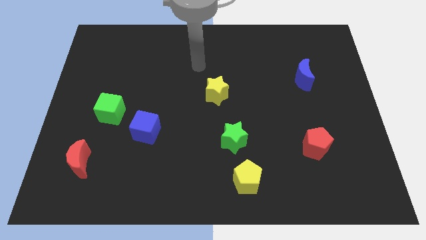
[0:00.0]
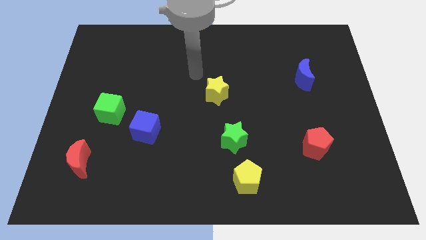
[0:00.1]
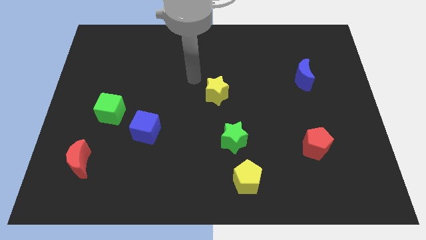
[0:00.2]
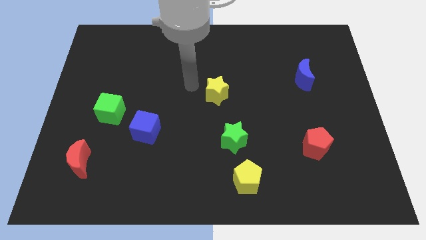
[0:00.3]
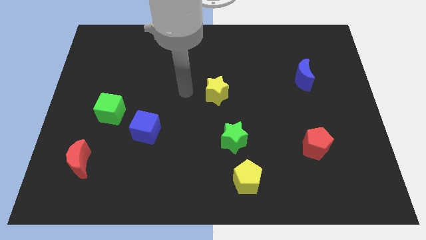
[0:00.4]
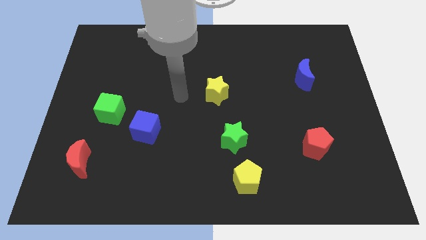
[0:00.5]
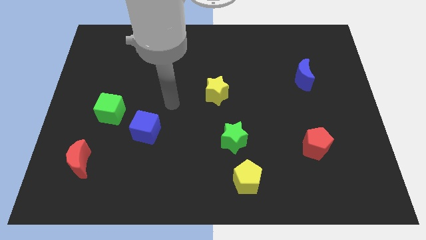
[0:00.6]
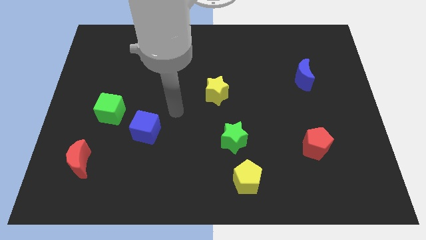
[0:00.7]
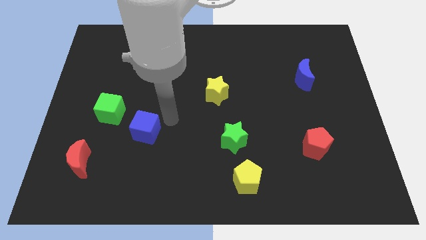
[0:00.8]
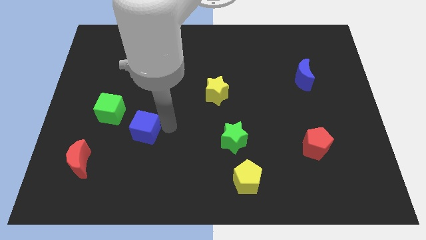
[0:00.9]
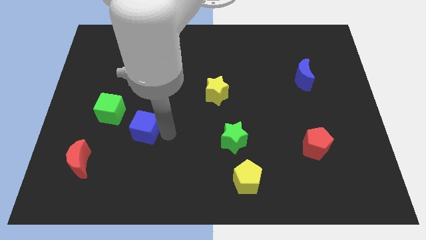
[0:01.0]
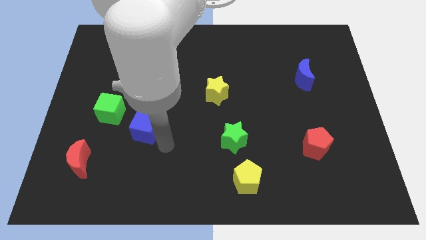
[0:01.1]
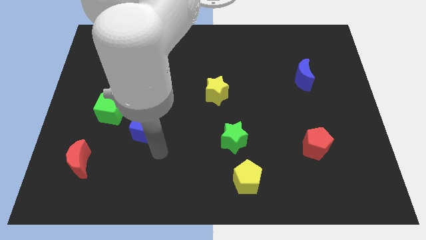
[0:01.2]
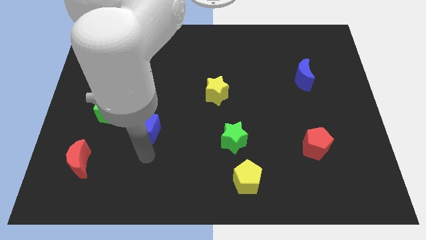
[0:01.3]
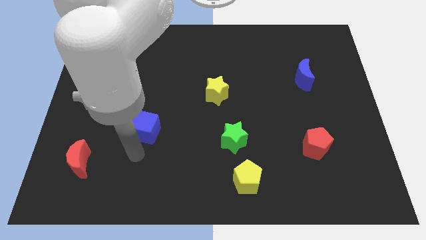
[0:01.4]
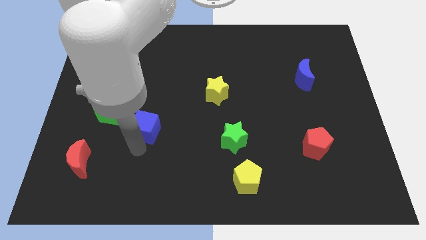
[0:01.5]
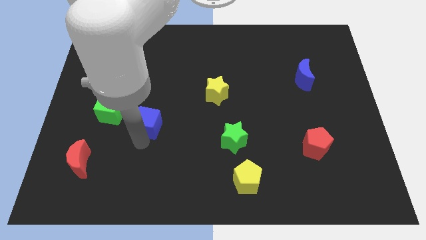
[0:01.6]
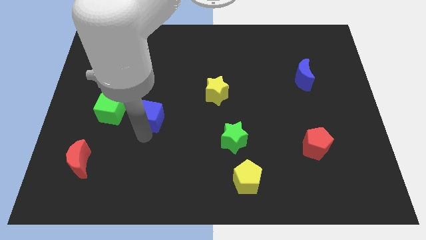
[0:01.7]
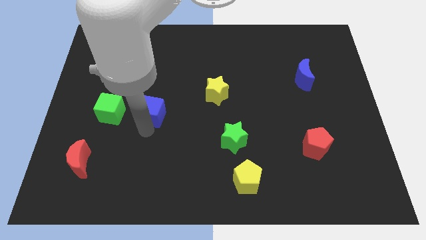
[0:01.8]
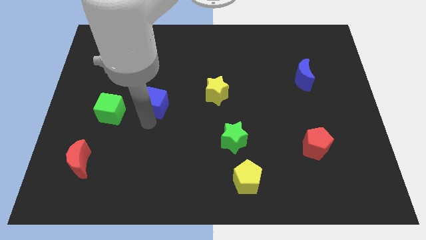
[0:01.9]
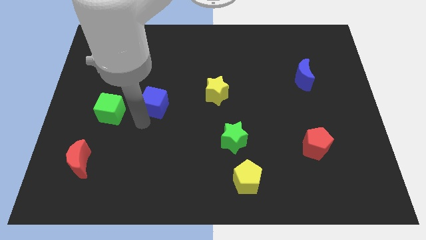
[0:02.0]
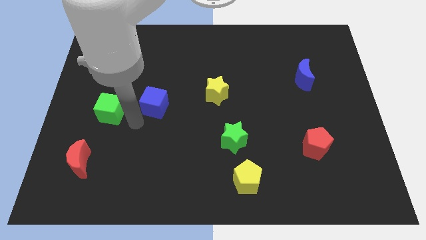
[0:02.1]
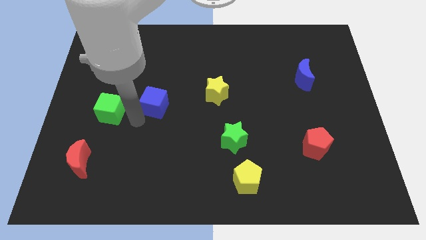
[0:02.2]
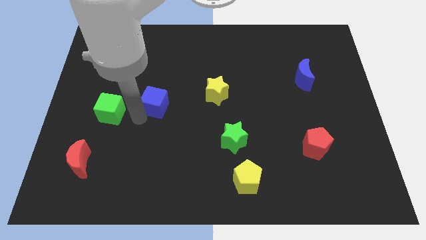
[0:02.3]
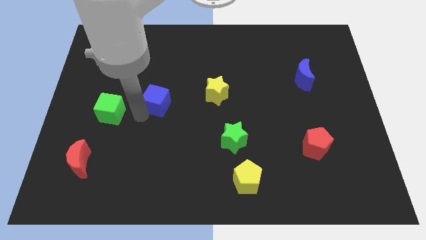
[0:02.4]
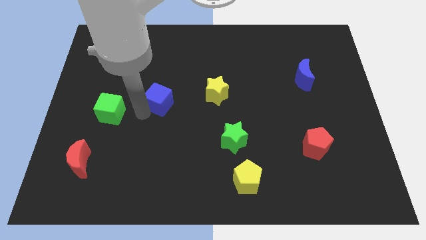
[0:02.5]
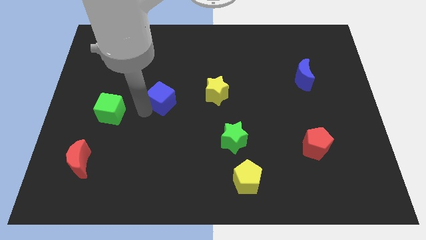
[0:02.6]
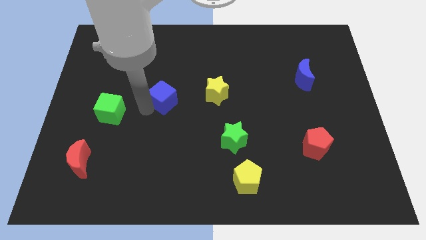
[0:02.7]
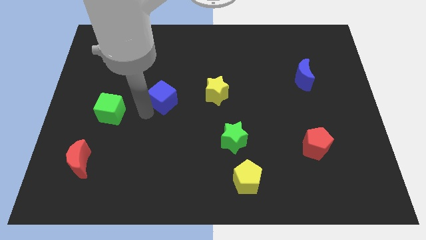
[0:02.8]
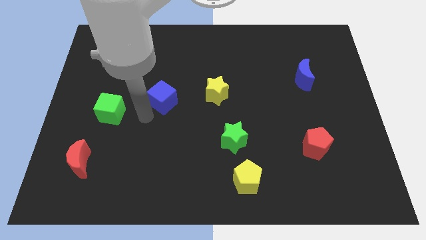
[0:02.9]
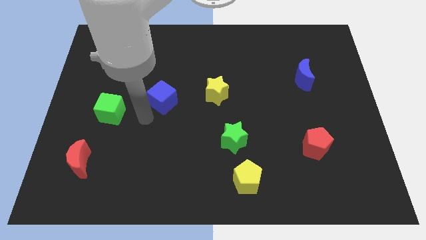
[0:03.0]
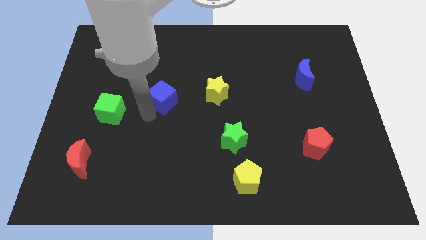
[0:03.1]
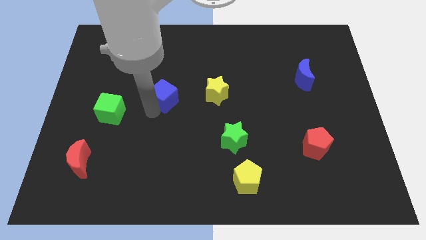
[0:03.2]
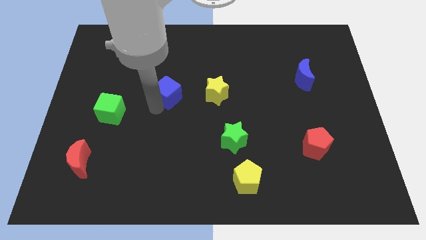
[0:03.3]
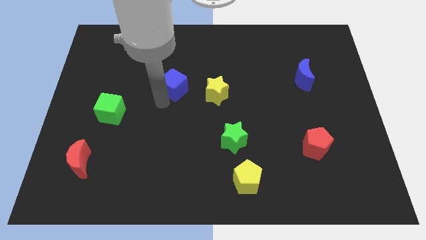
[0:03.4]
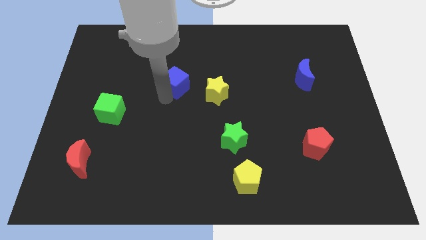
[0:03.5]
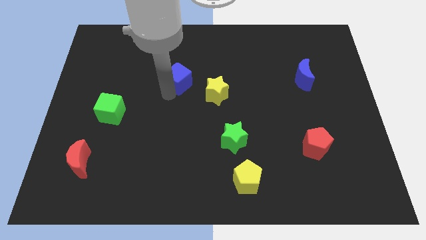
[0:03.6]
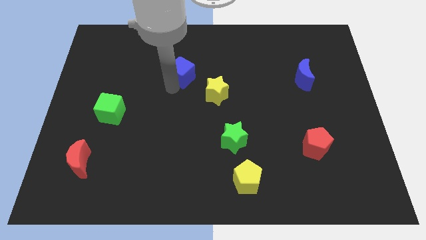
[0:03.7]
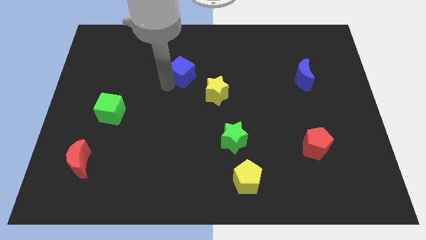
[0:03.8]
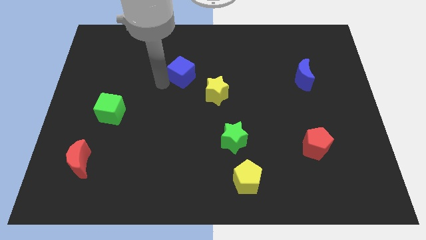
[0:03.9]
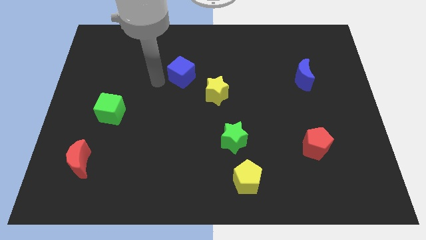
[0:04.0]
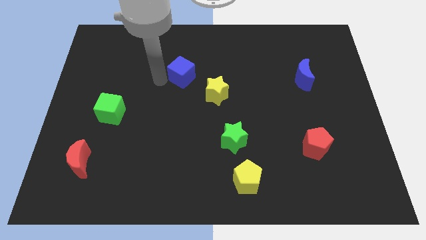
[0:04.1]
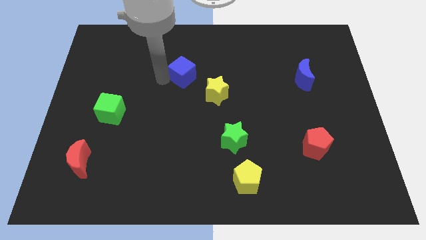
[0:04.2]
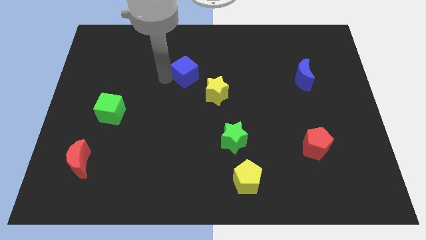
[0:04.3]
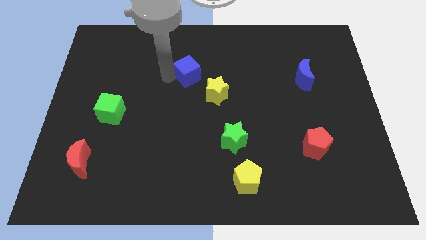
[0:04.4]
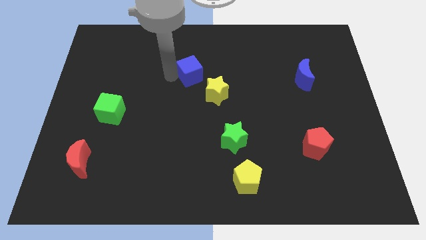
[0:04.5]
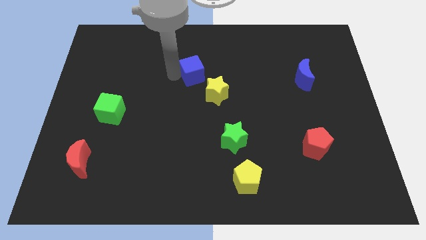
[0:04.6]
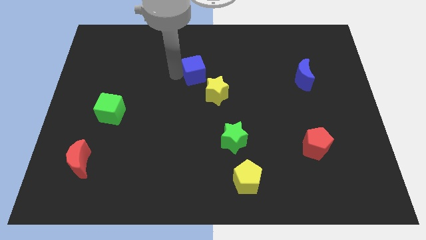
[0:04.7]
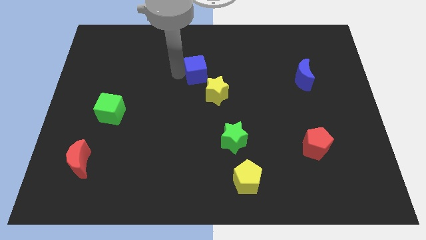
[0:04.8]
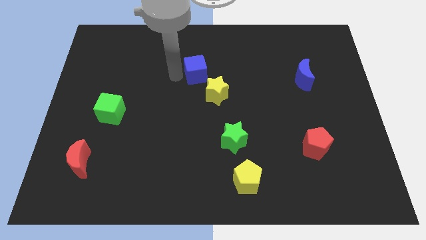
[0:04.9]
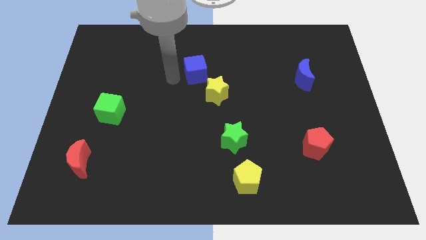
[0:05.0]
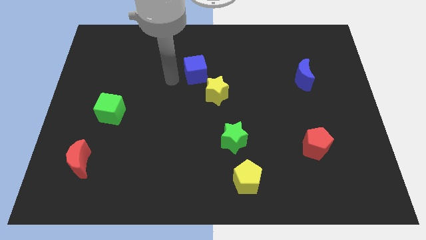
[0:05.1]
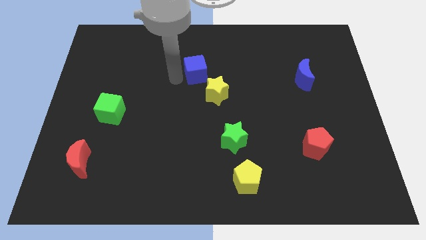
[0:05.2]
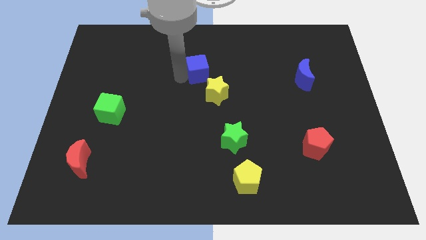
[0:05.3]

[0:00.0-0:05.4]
slide the blue cube up and then right

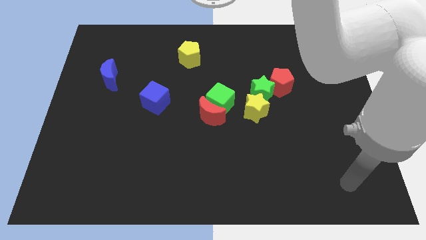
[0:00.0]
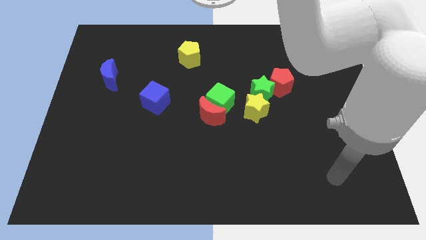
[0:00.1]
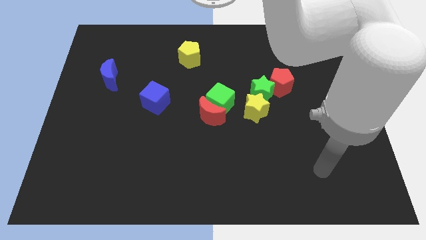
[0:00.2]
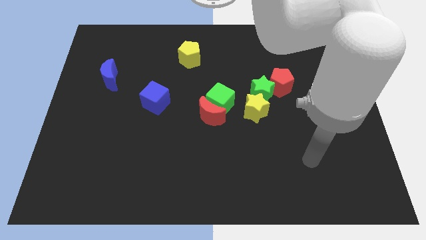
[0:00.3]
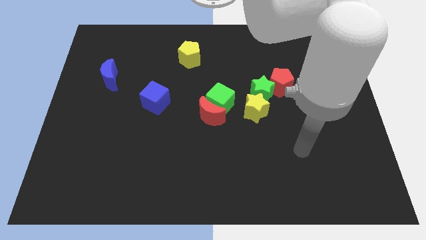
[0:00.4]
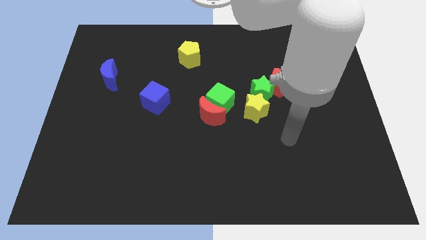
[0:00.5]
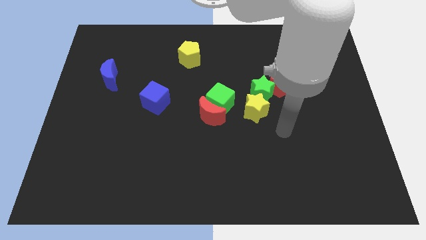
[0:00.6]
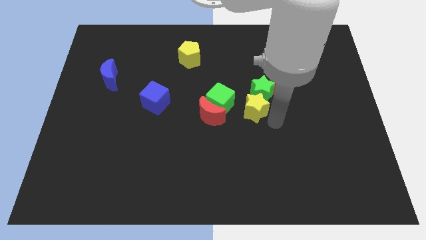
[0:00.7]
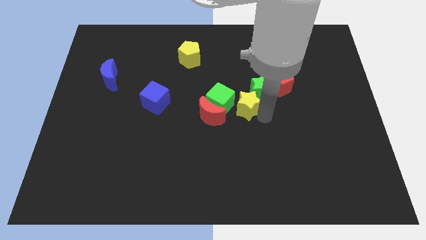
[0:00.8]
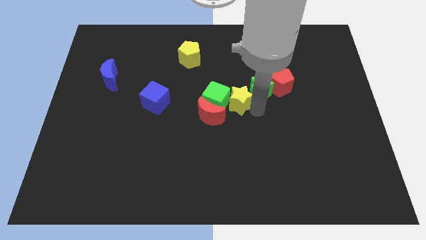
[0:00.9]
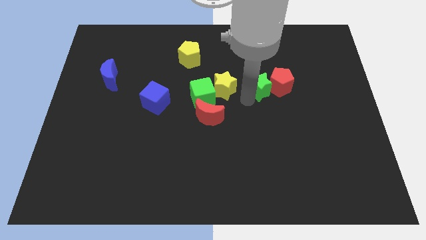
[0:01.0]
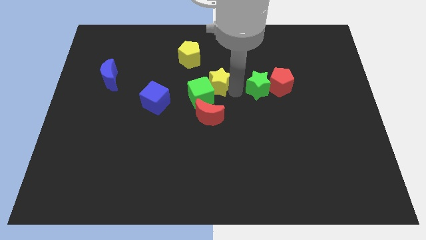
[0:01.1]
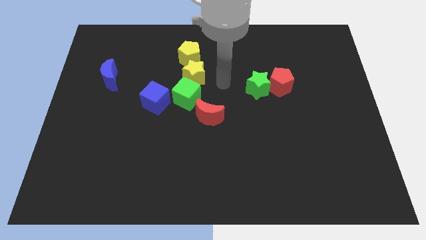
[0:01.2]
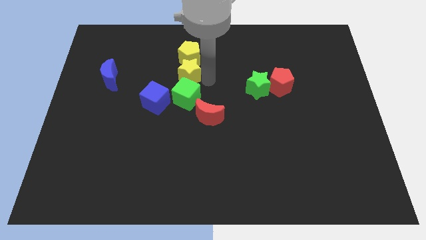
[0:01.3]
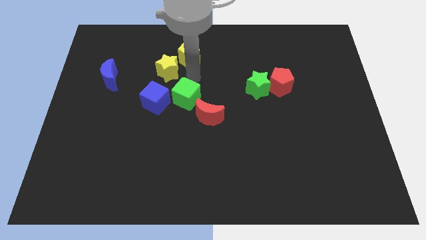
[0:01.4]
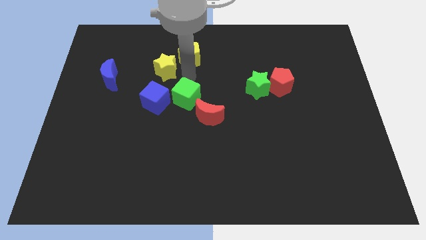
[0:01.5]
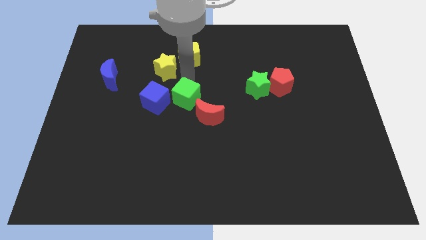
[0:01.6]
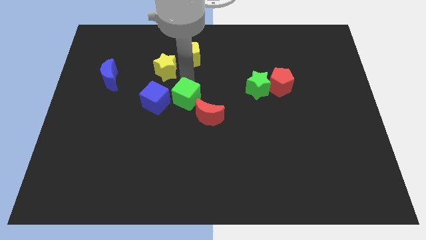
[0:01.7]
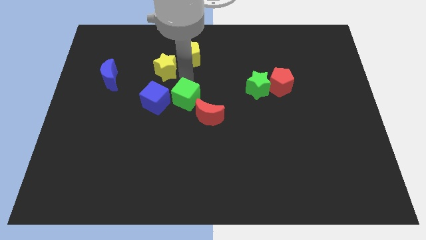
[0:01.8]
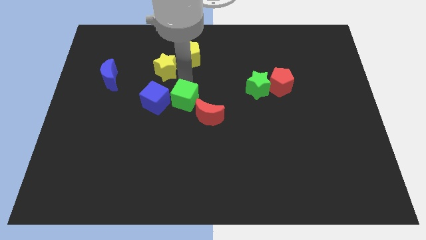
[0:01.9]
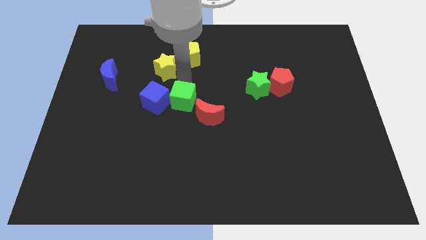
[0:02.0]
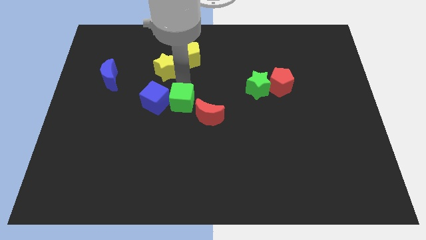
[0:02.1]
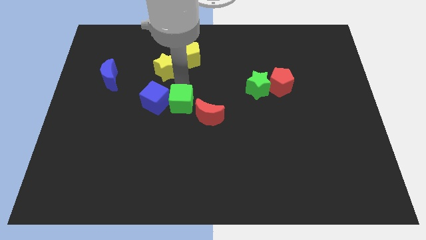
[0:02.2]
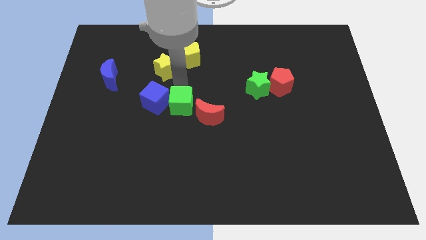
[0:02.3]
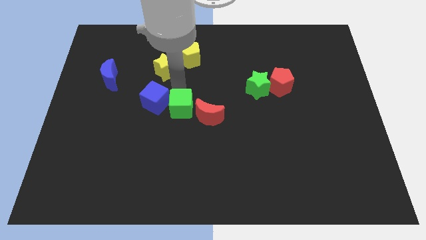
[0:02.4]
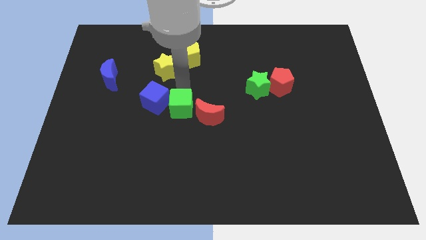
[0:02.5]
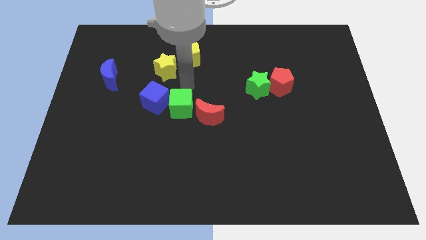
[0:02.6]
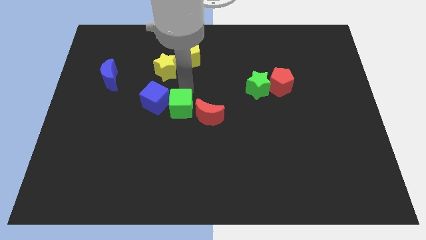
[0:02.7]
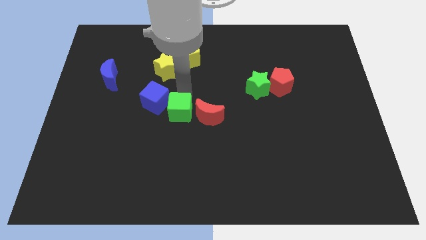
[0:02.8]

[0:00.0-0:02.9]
slide the green cube a bit down and left diagonally
